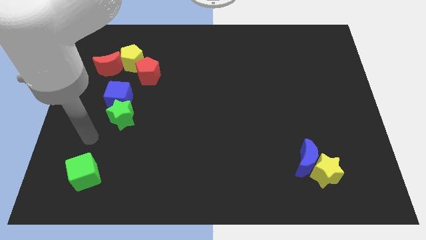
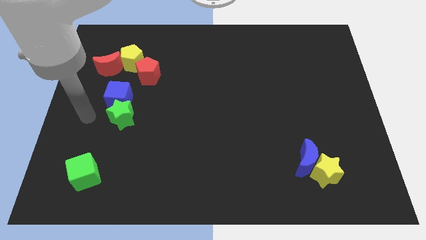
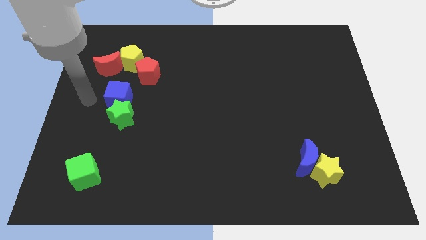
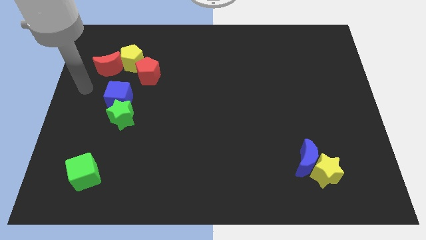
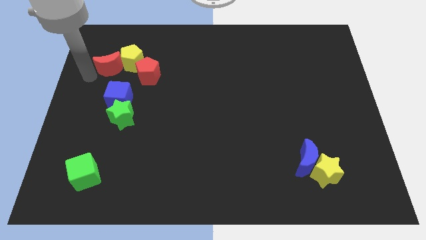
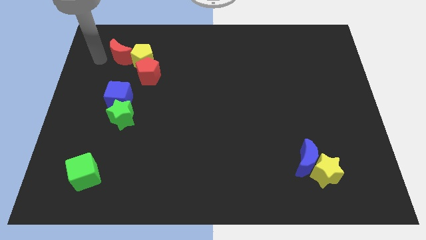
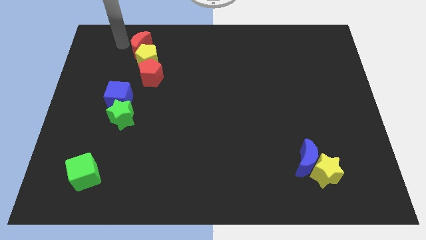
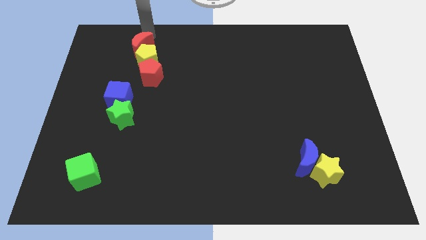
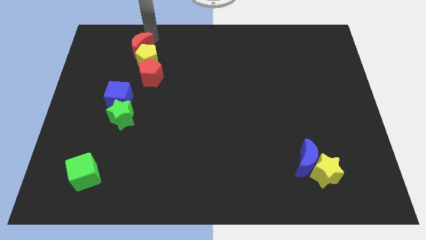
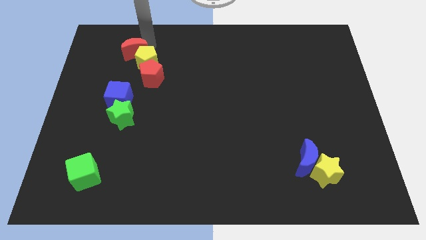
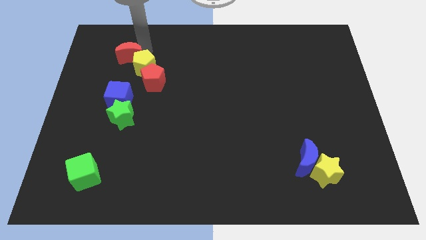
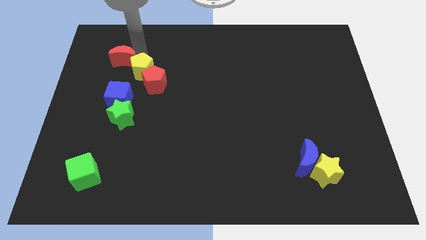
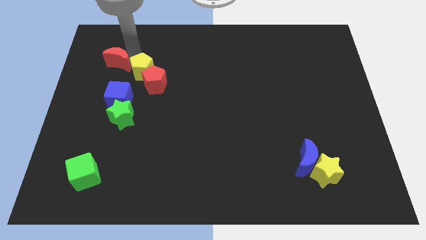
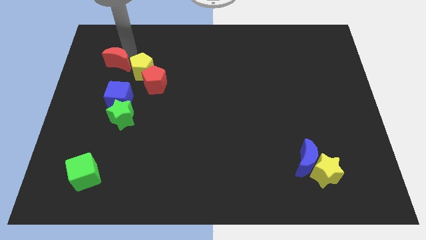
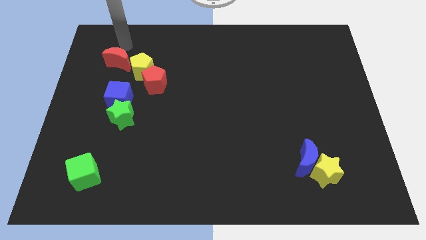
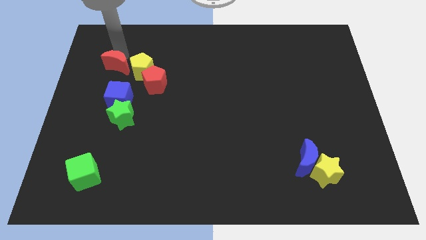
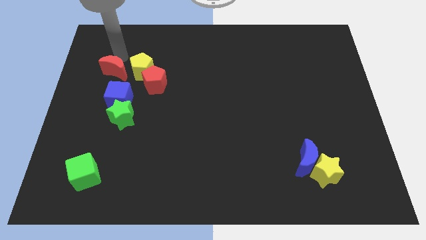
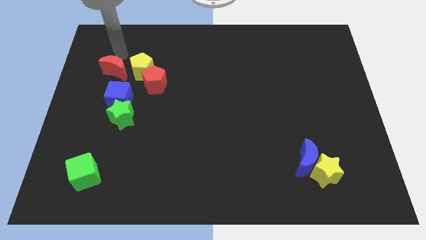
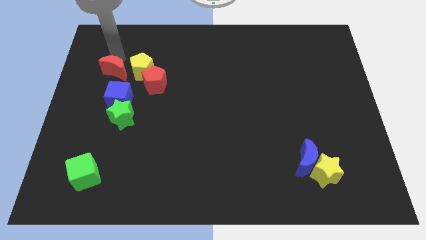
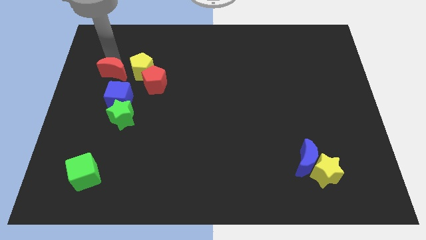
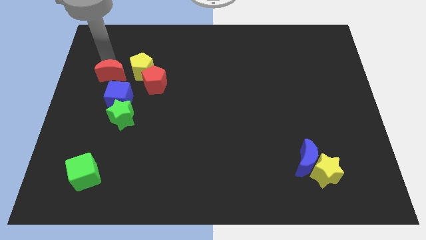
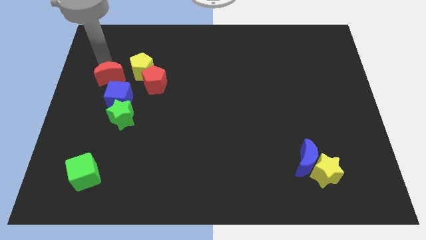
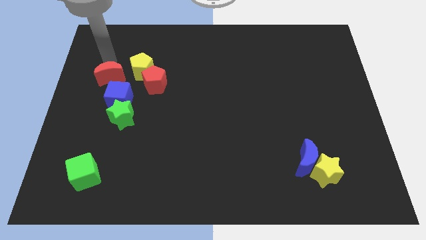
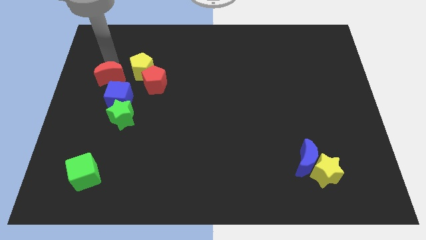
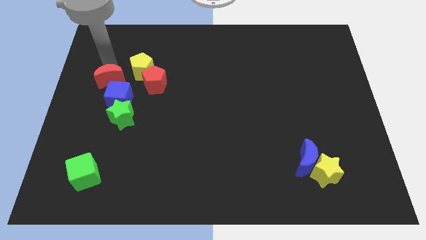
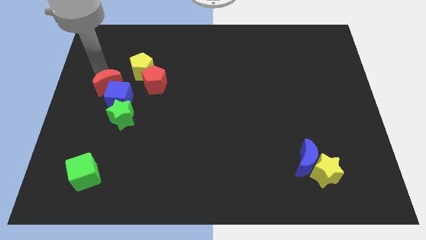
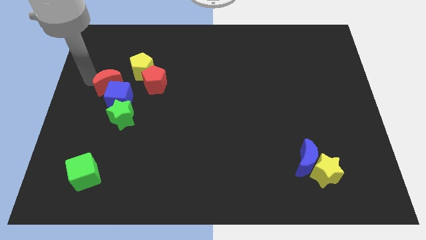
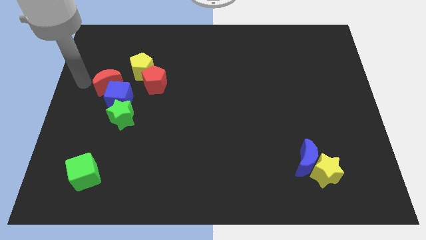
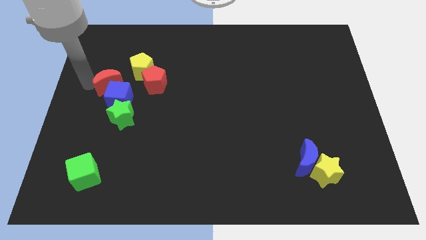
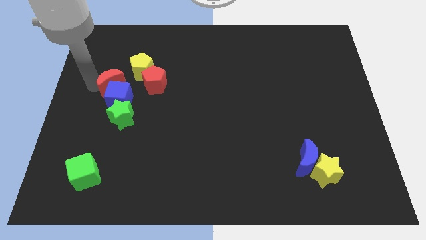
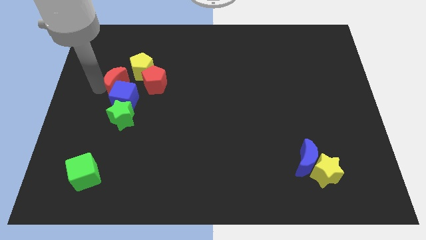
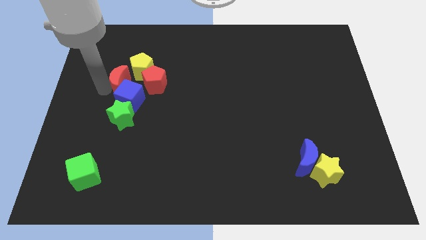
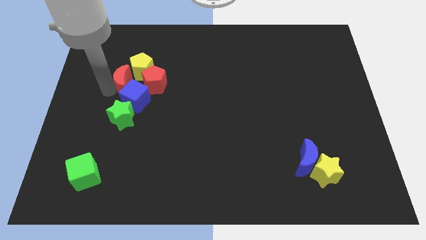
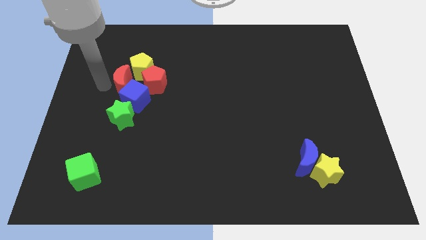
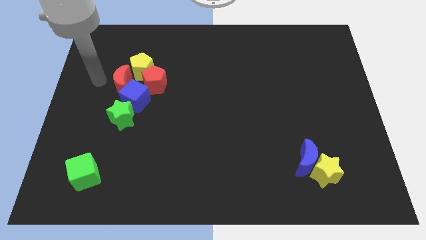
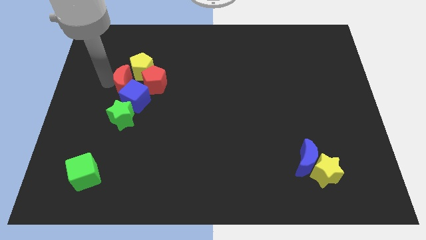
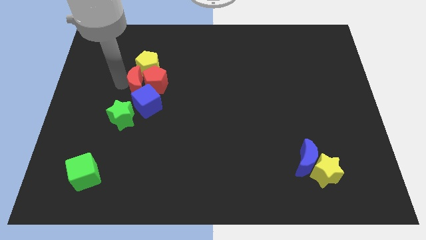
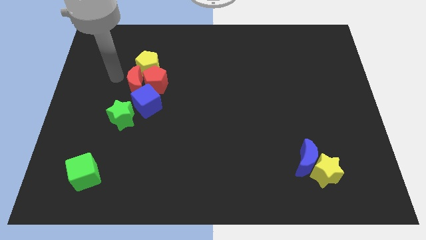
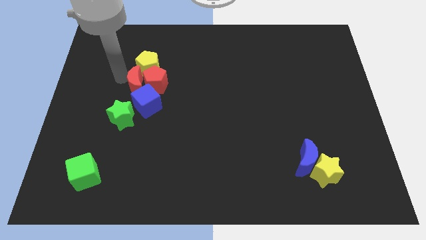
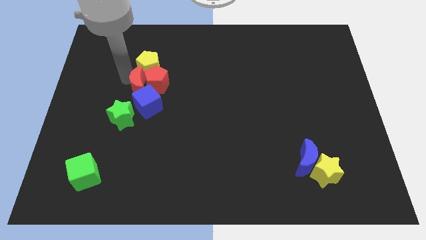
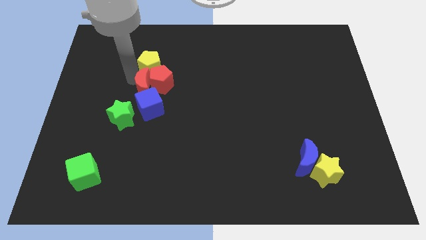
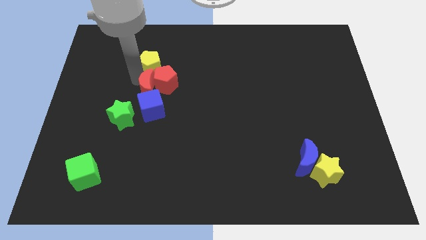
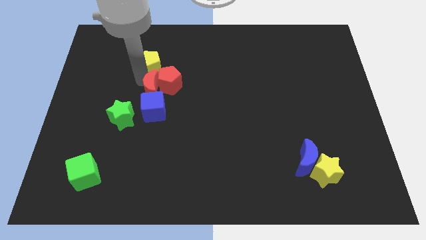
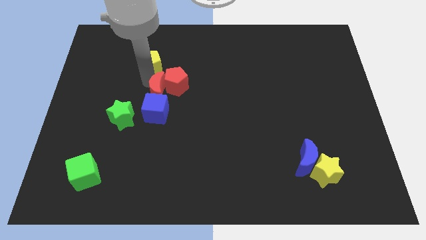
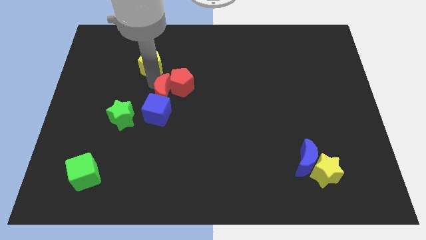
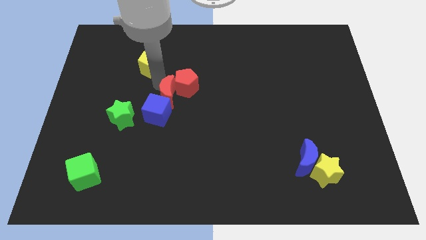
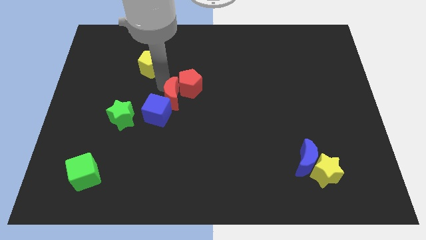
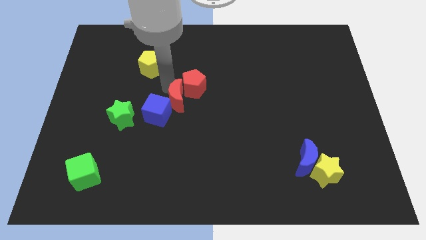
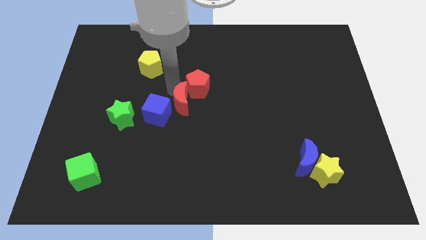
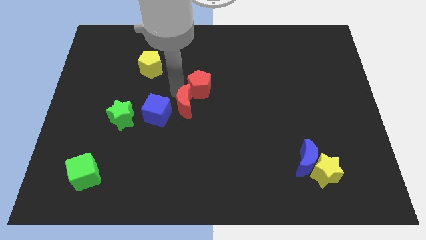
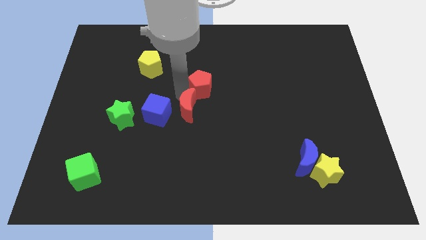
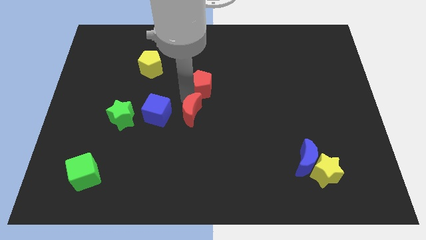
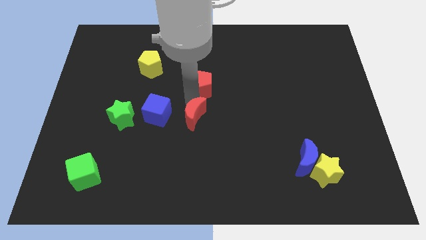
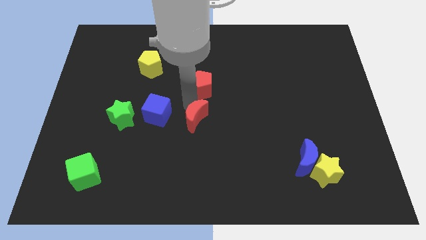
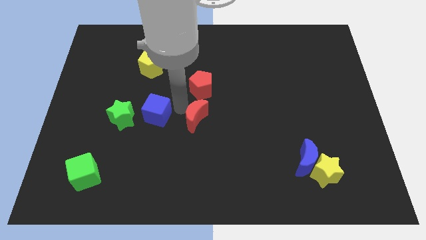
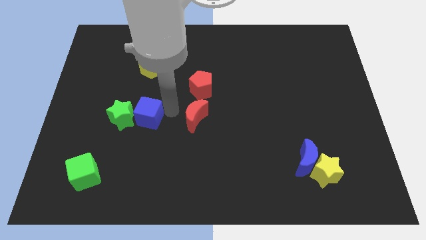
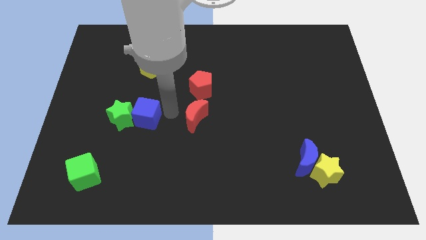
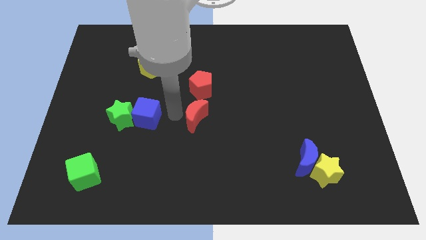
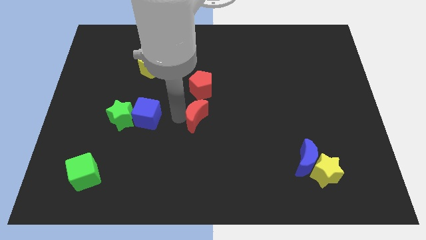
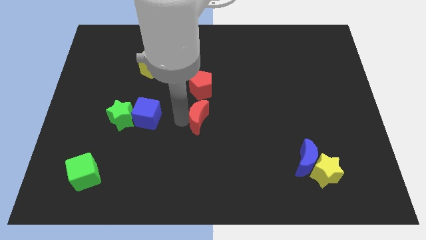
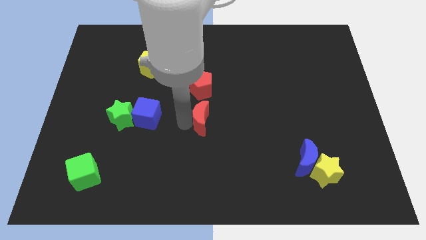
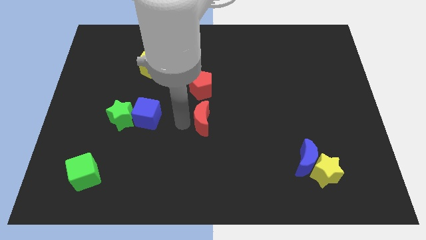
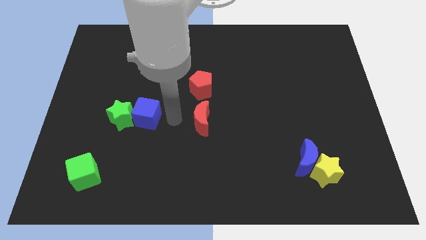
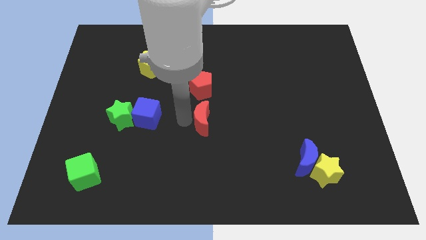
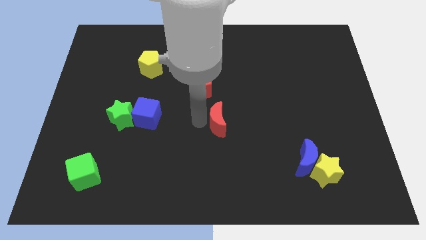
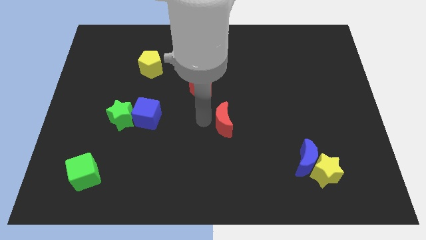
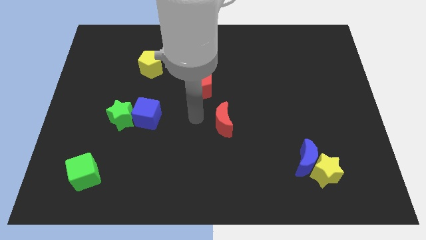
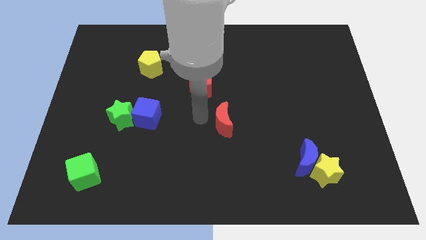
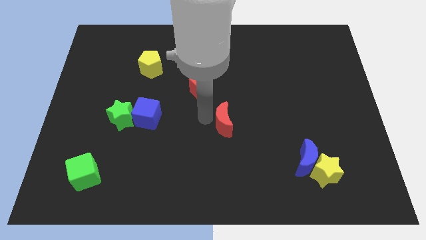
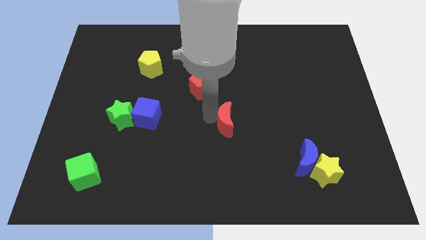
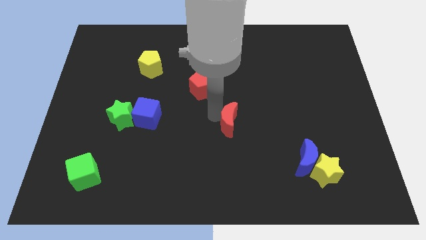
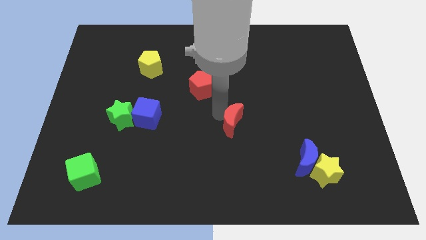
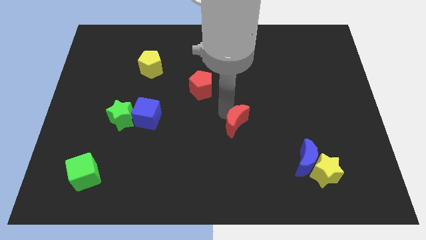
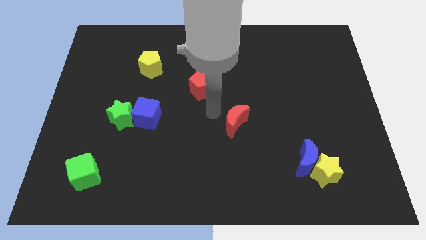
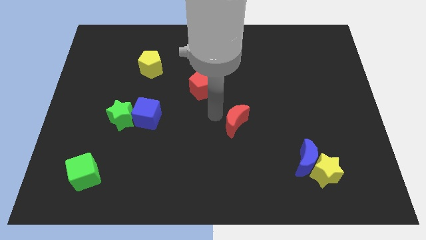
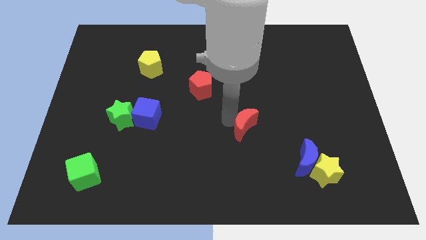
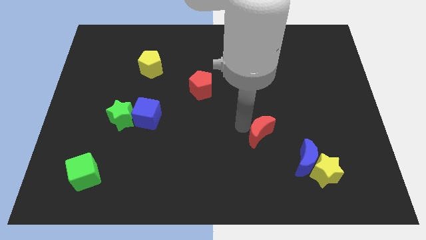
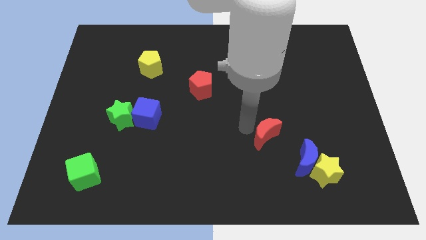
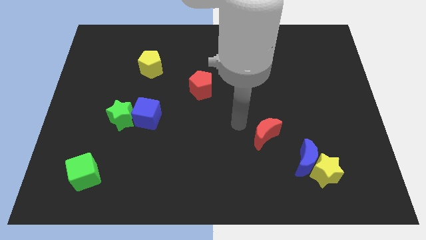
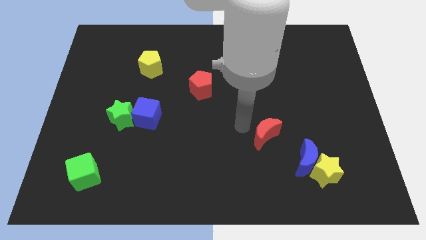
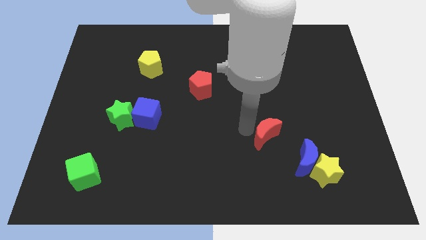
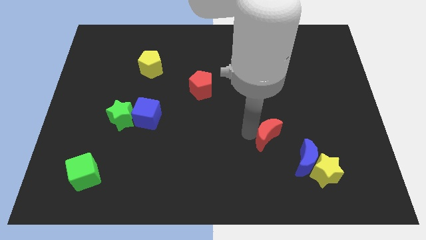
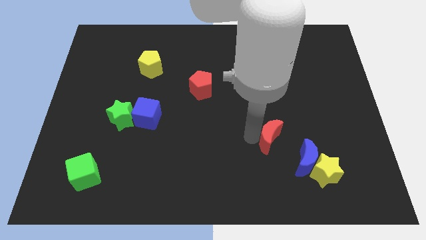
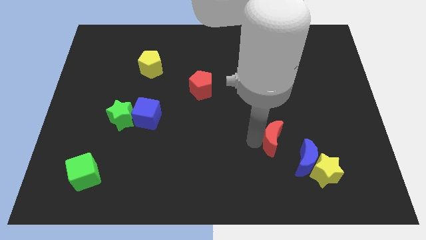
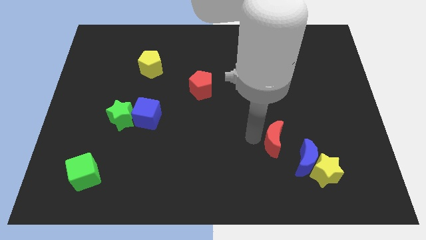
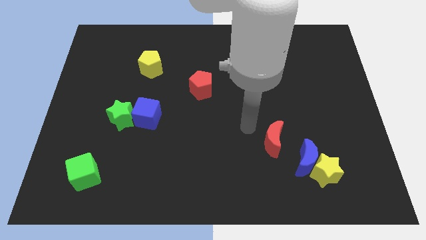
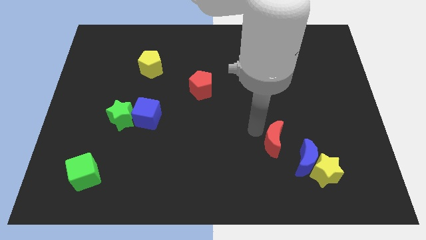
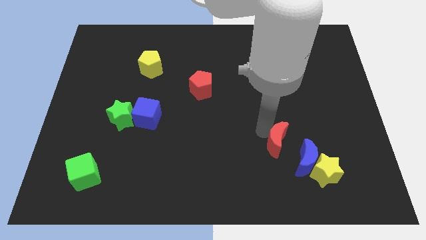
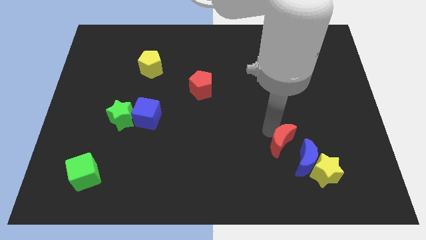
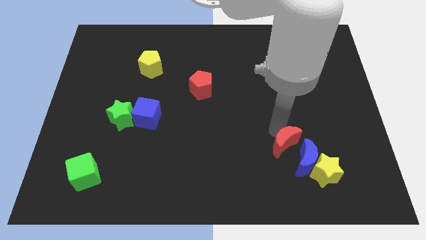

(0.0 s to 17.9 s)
push the red moon towards the blue moon
